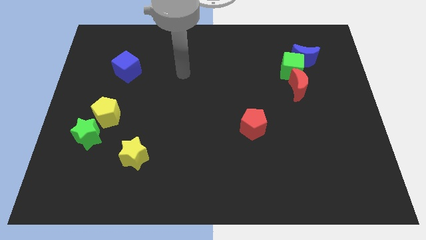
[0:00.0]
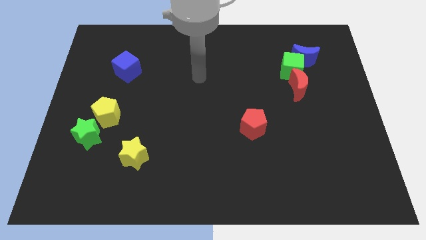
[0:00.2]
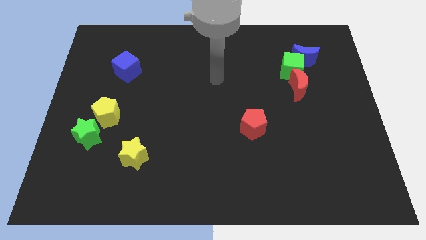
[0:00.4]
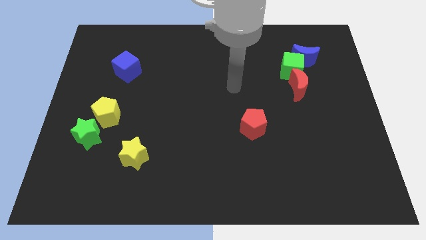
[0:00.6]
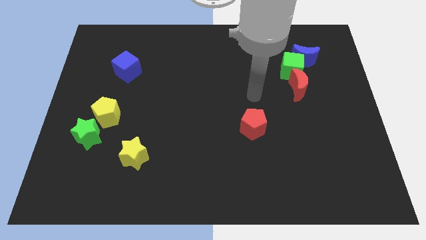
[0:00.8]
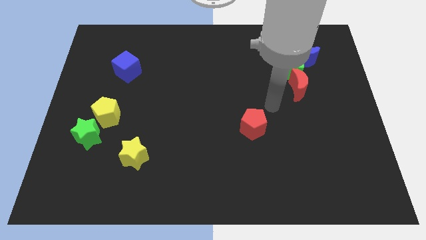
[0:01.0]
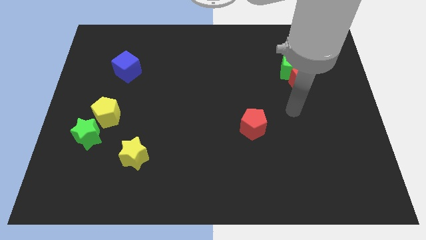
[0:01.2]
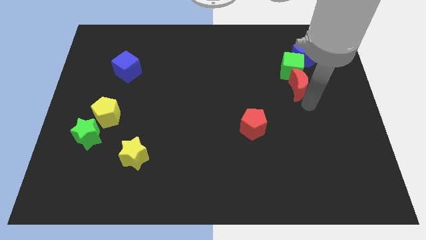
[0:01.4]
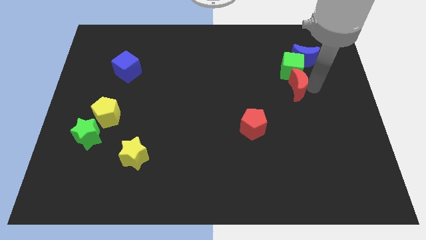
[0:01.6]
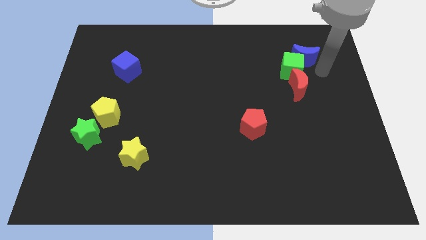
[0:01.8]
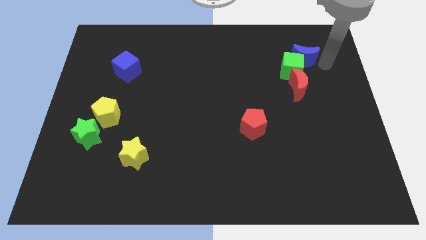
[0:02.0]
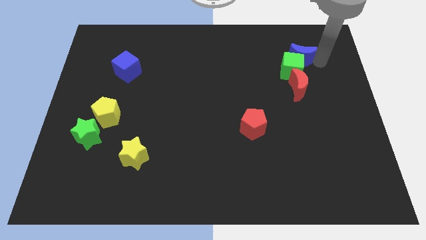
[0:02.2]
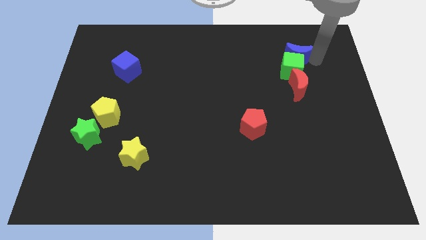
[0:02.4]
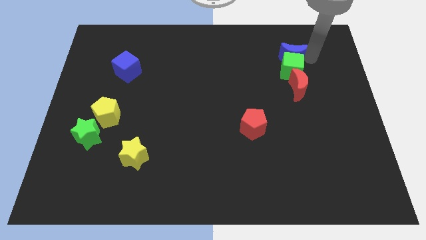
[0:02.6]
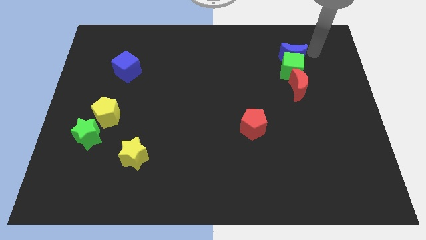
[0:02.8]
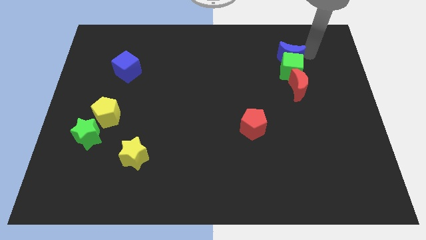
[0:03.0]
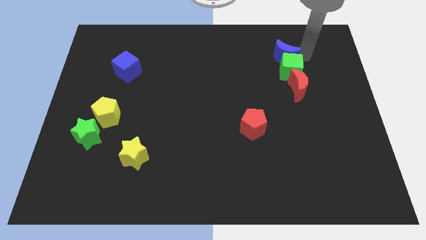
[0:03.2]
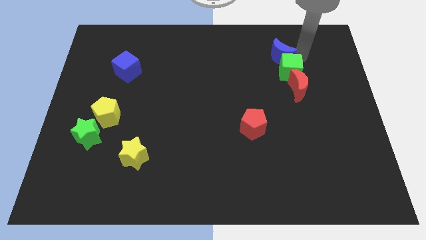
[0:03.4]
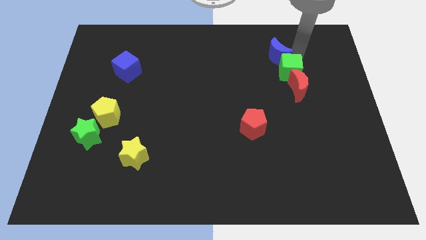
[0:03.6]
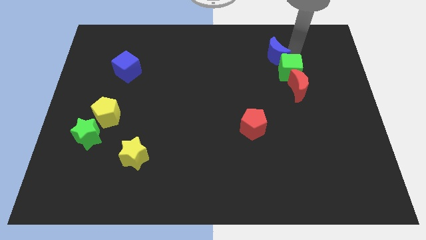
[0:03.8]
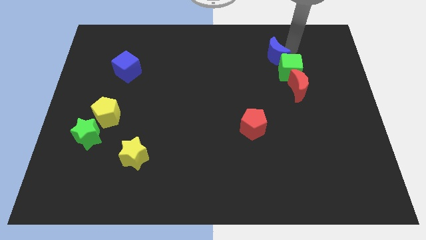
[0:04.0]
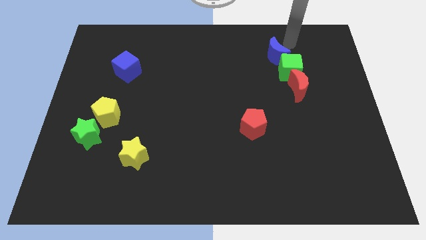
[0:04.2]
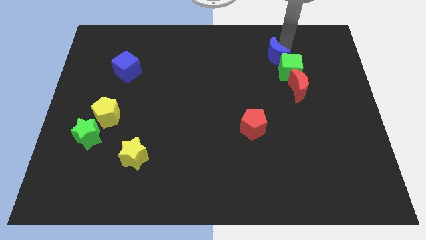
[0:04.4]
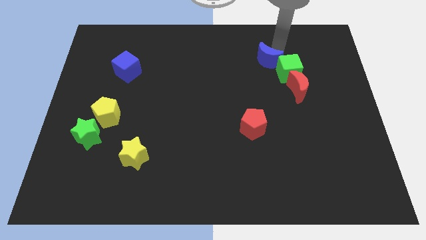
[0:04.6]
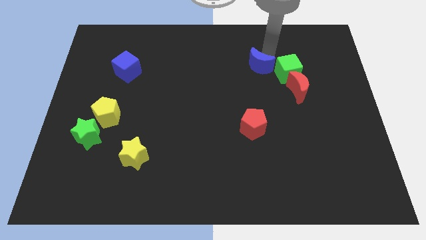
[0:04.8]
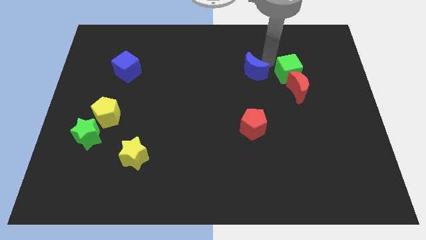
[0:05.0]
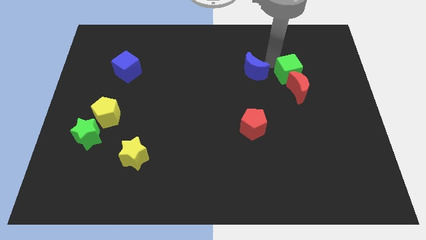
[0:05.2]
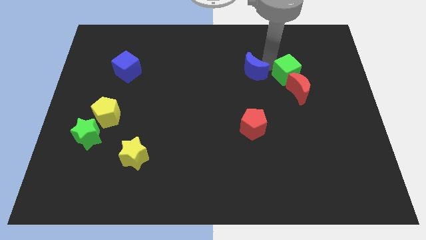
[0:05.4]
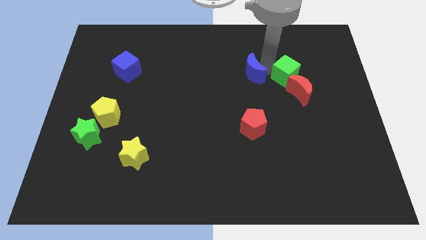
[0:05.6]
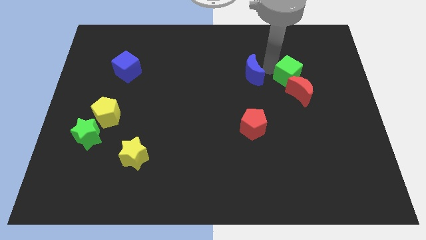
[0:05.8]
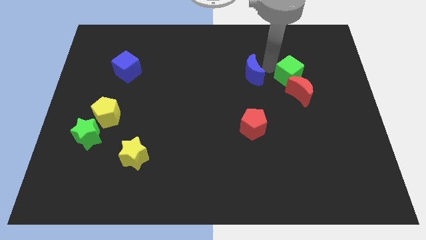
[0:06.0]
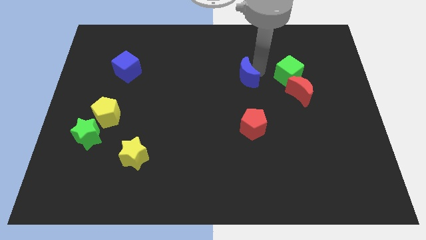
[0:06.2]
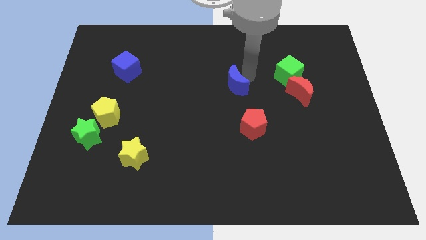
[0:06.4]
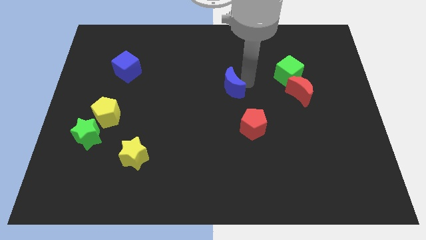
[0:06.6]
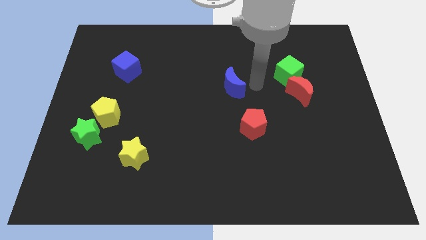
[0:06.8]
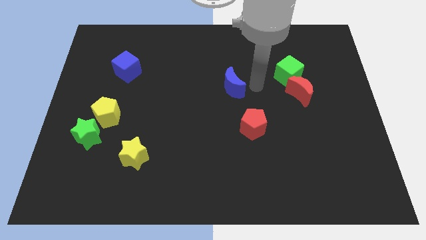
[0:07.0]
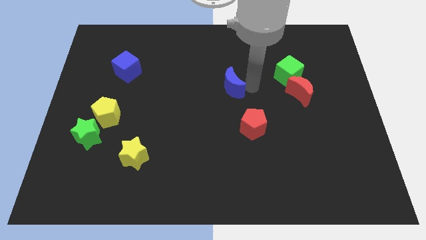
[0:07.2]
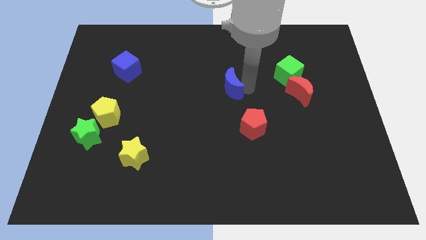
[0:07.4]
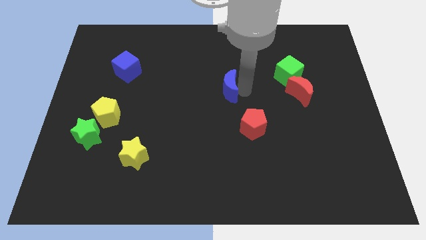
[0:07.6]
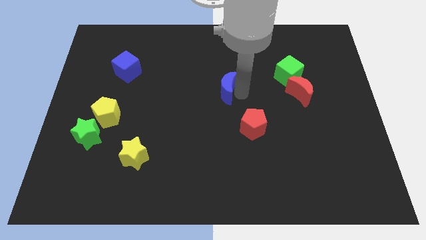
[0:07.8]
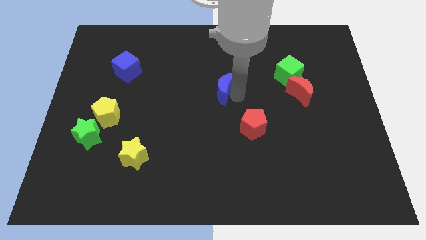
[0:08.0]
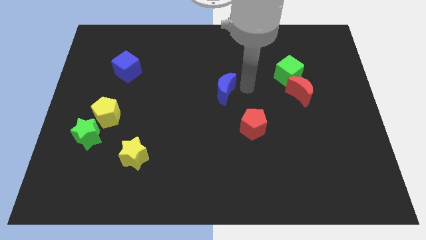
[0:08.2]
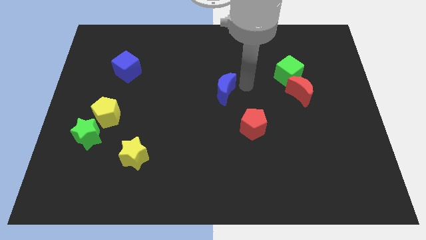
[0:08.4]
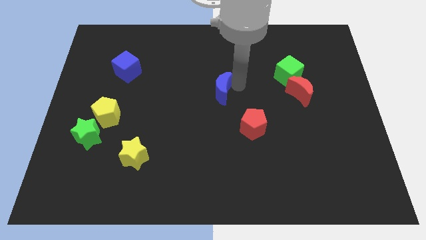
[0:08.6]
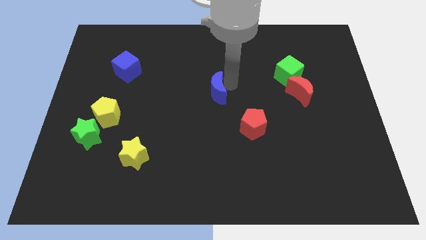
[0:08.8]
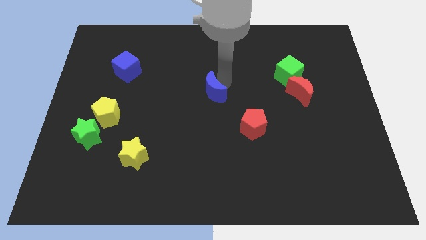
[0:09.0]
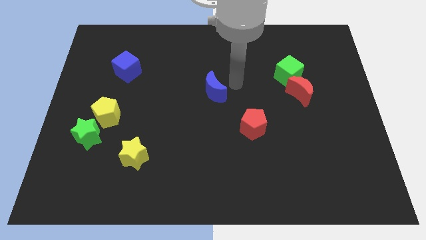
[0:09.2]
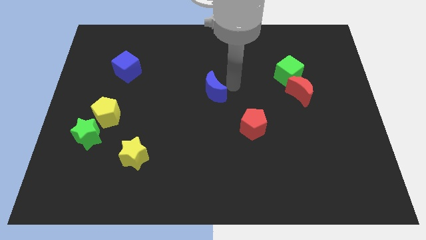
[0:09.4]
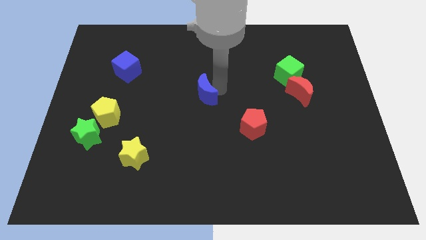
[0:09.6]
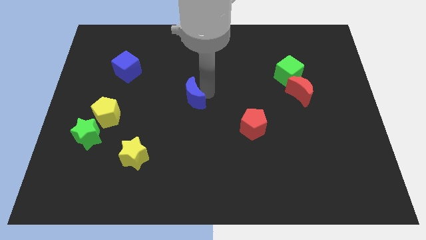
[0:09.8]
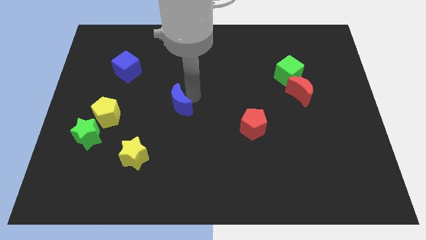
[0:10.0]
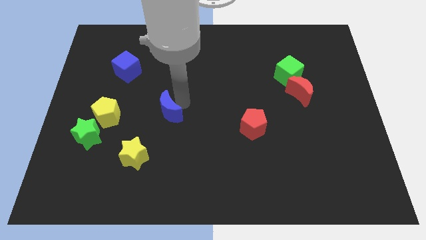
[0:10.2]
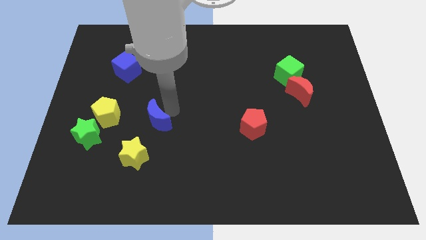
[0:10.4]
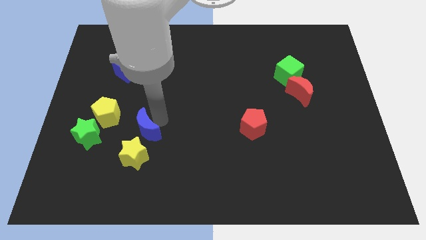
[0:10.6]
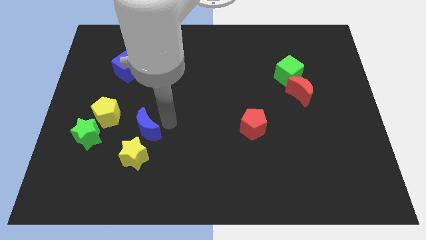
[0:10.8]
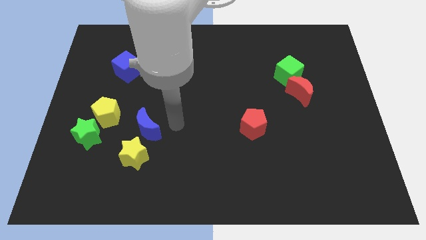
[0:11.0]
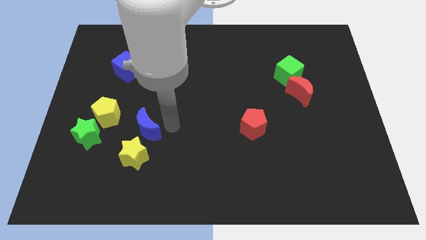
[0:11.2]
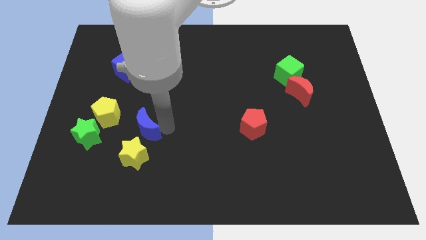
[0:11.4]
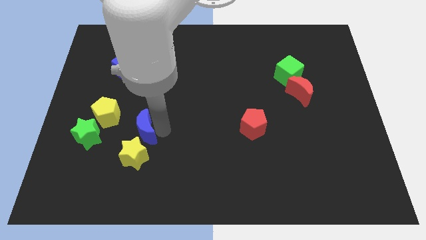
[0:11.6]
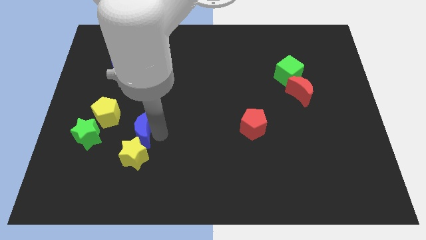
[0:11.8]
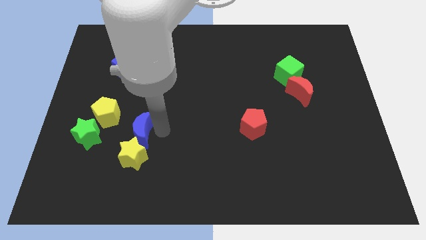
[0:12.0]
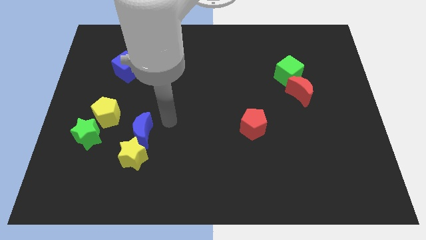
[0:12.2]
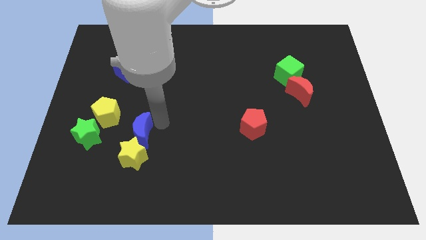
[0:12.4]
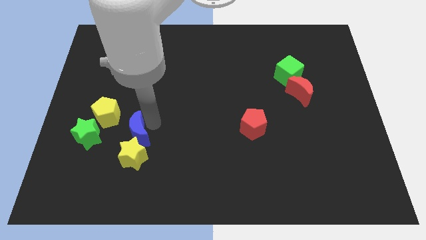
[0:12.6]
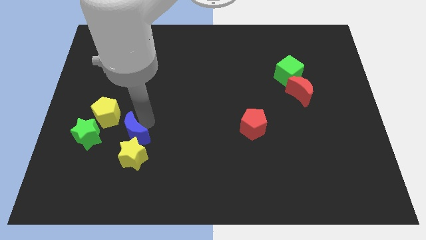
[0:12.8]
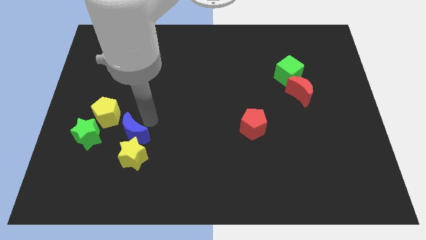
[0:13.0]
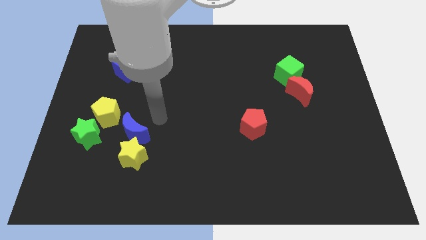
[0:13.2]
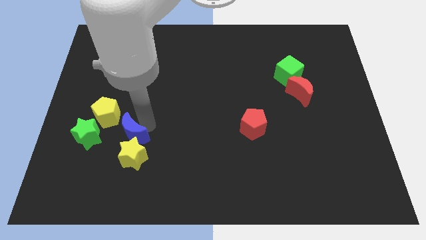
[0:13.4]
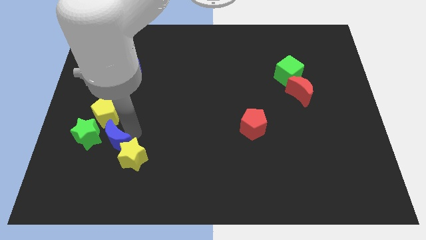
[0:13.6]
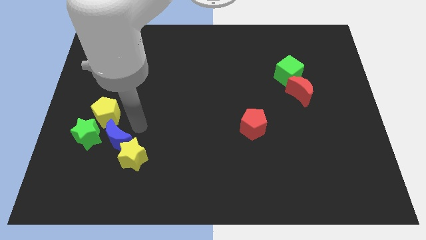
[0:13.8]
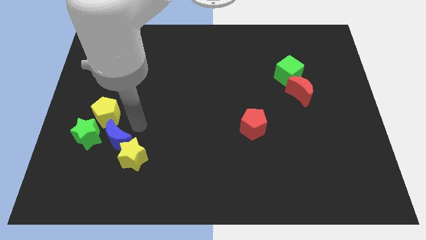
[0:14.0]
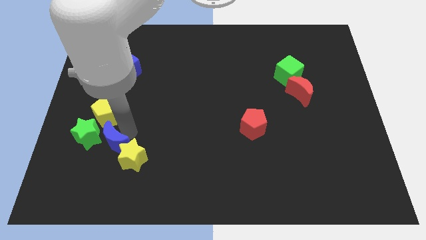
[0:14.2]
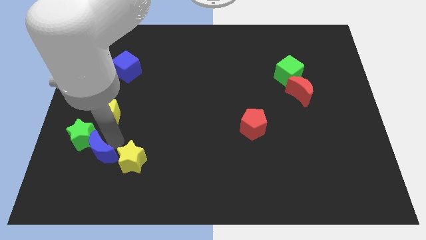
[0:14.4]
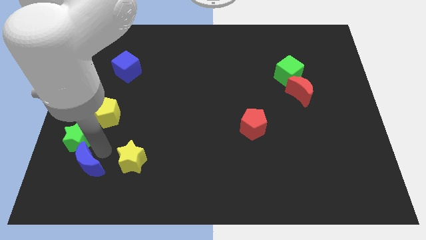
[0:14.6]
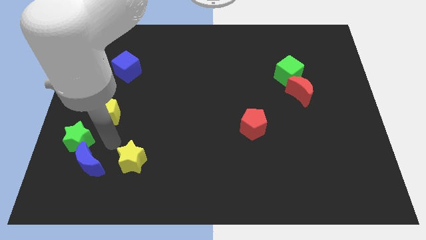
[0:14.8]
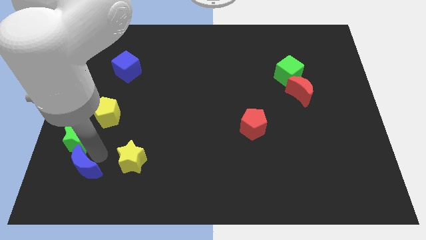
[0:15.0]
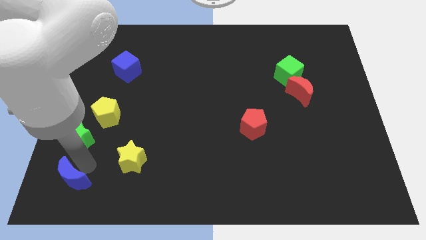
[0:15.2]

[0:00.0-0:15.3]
push the blue moon to the bottom left of the board
